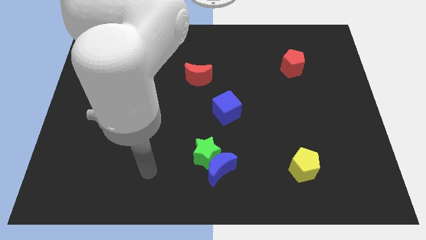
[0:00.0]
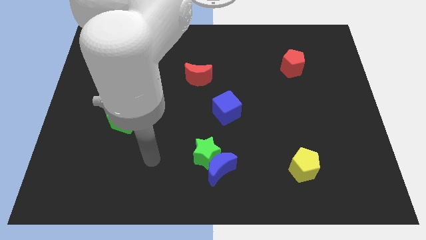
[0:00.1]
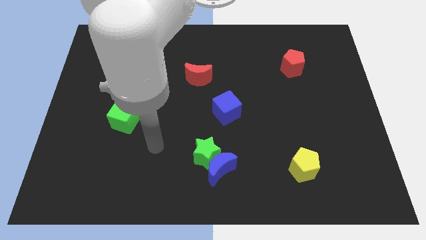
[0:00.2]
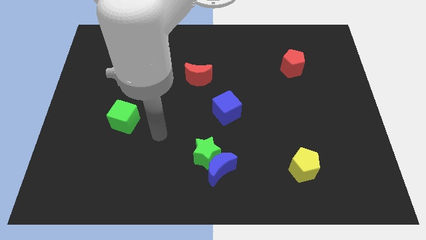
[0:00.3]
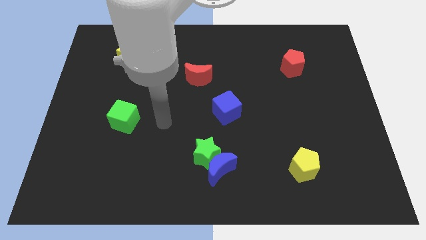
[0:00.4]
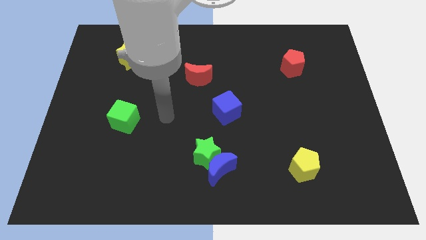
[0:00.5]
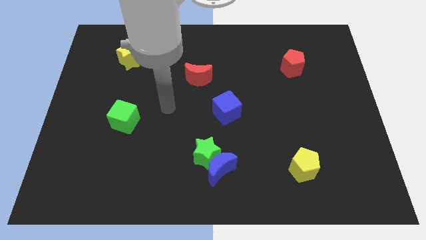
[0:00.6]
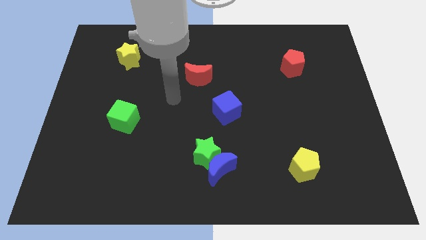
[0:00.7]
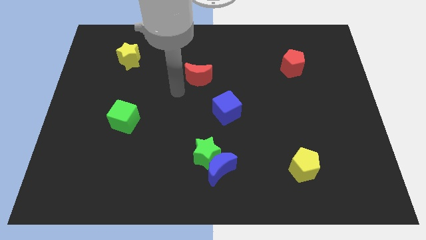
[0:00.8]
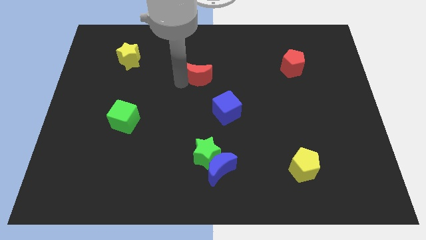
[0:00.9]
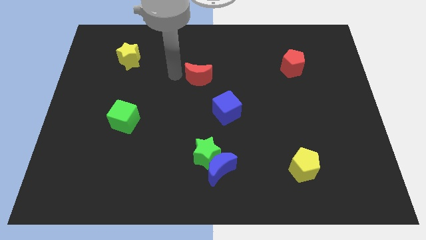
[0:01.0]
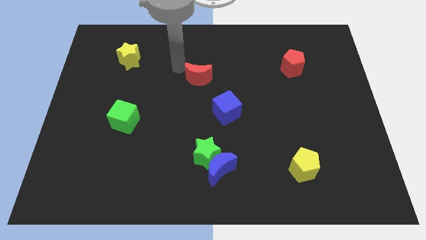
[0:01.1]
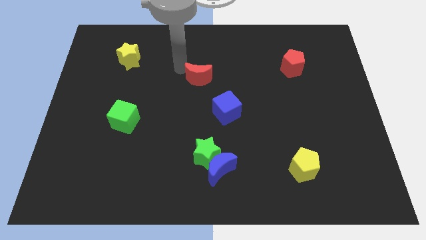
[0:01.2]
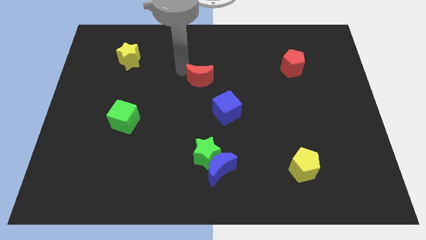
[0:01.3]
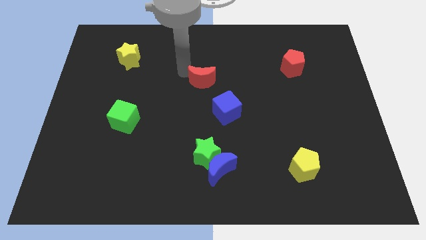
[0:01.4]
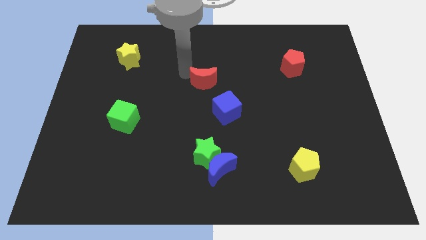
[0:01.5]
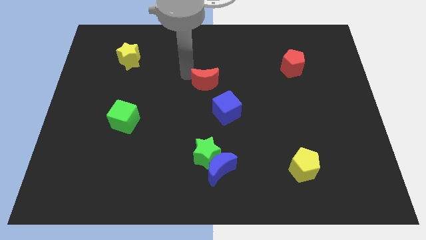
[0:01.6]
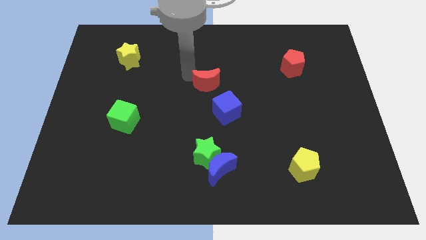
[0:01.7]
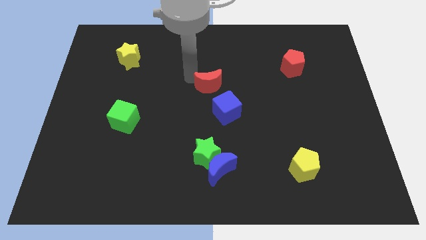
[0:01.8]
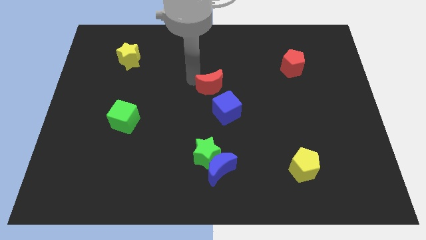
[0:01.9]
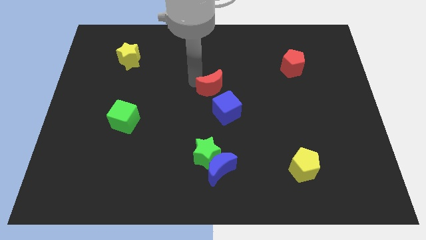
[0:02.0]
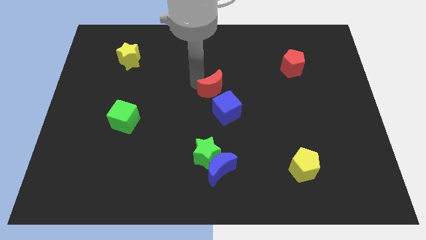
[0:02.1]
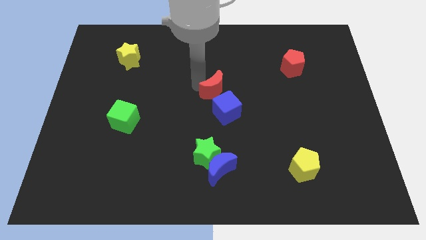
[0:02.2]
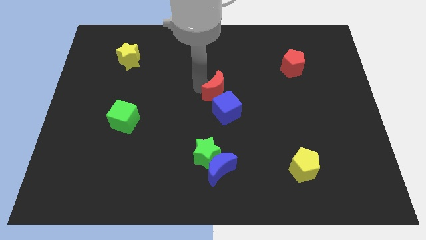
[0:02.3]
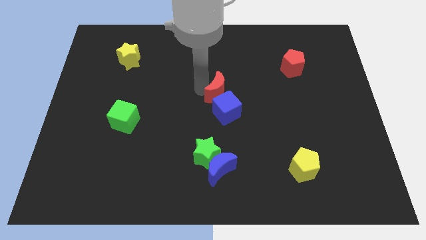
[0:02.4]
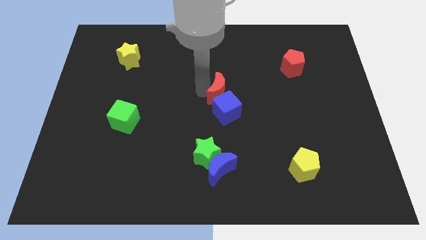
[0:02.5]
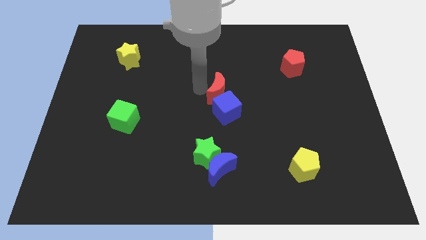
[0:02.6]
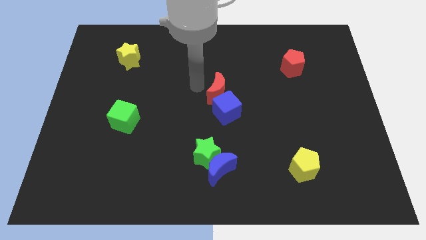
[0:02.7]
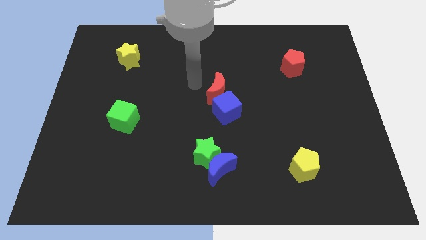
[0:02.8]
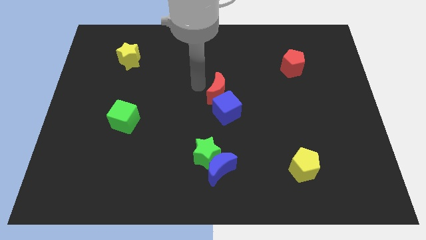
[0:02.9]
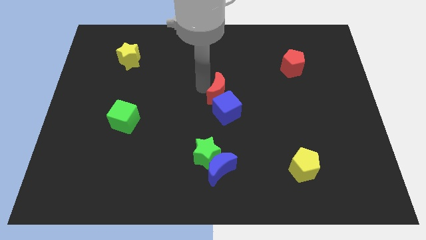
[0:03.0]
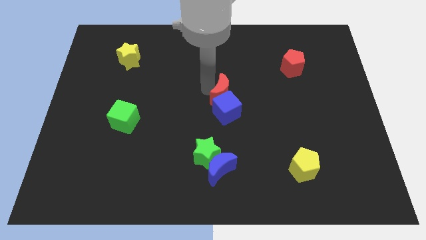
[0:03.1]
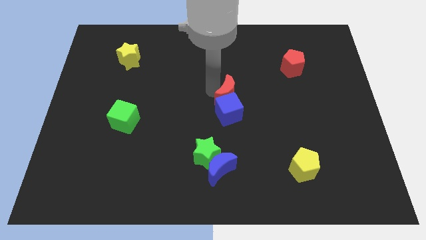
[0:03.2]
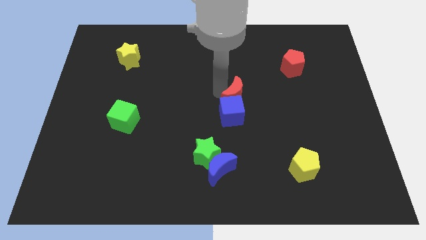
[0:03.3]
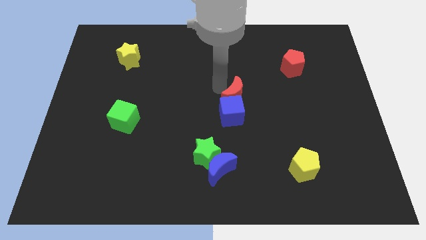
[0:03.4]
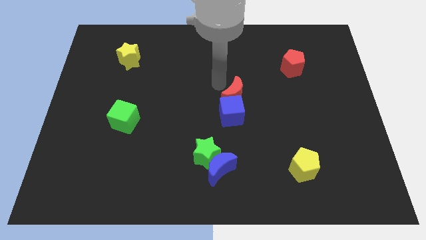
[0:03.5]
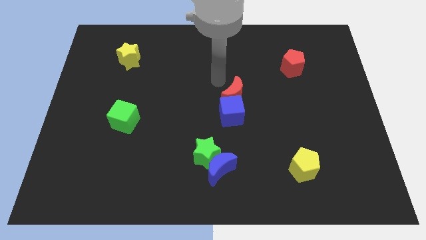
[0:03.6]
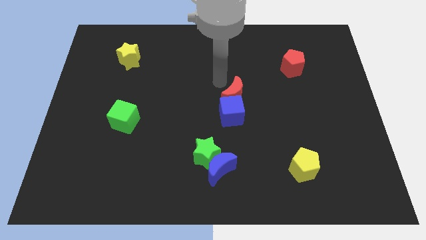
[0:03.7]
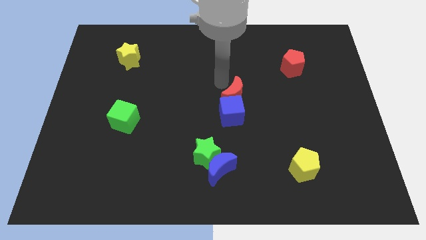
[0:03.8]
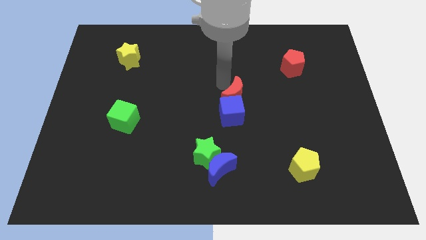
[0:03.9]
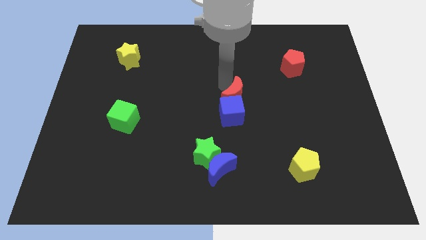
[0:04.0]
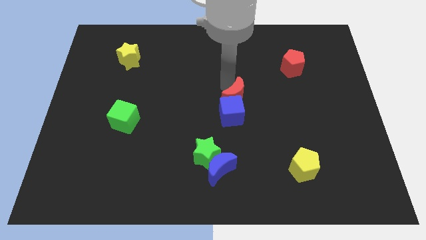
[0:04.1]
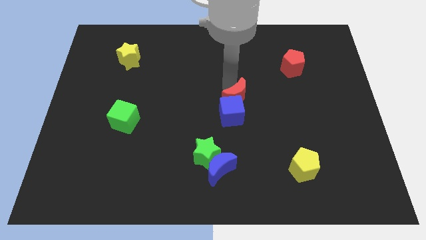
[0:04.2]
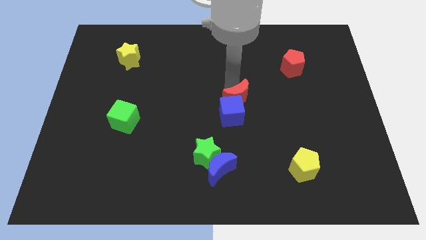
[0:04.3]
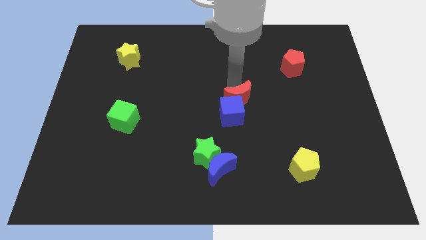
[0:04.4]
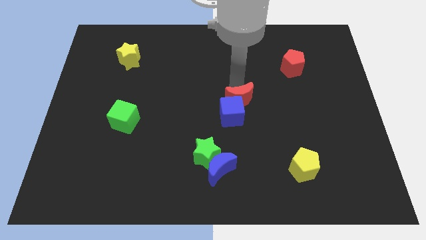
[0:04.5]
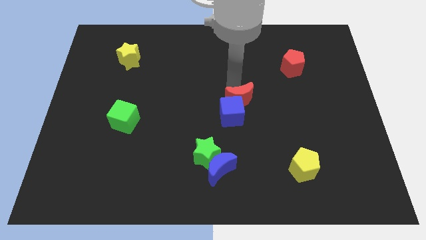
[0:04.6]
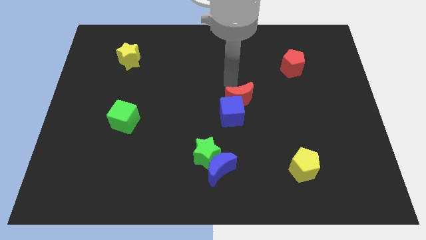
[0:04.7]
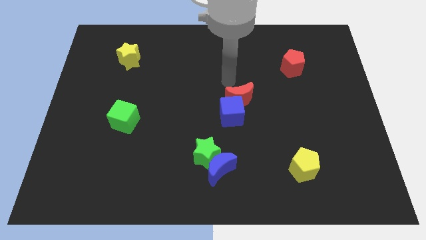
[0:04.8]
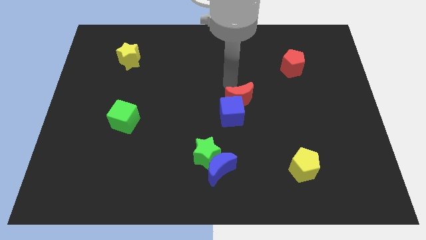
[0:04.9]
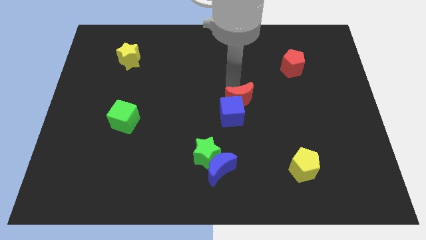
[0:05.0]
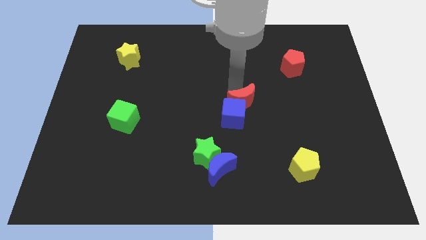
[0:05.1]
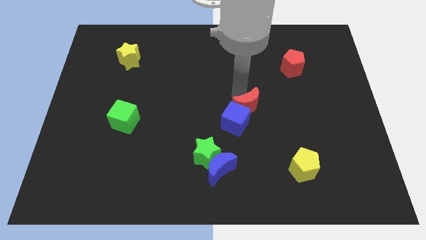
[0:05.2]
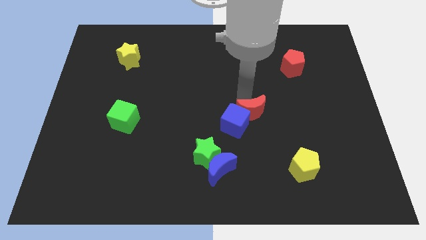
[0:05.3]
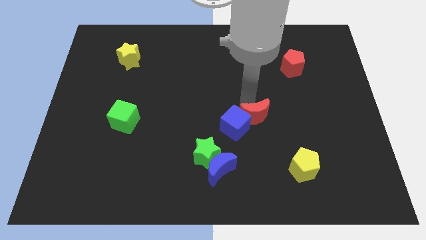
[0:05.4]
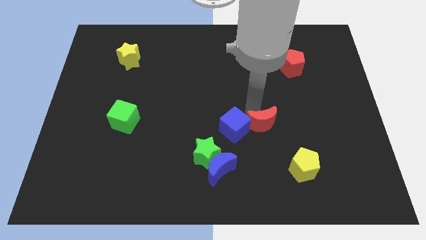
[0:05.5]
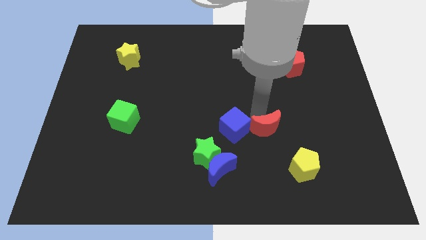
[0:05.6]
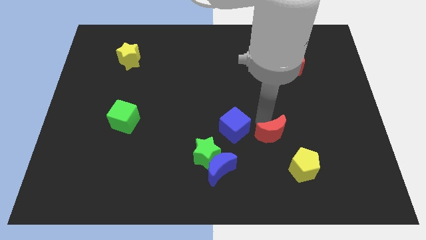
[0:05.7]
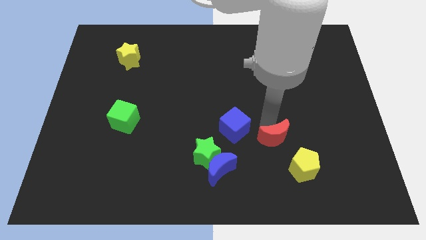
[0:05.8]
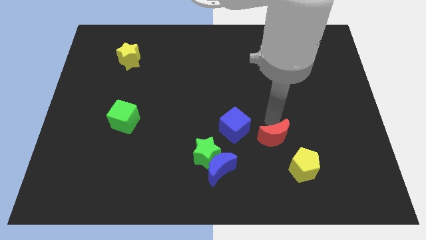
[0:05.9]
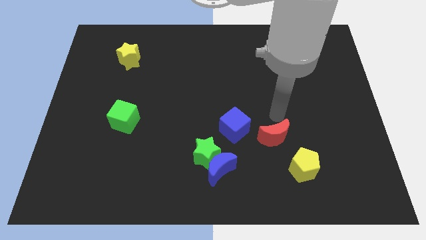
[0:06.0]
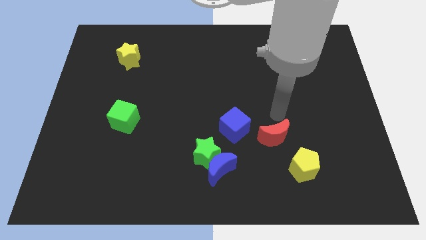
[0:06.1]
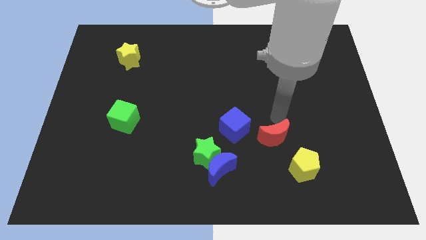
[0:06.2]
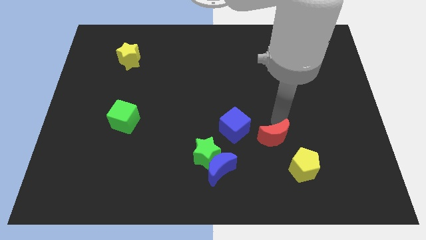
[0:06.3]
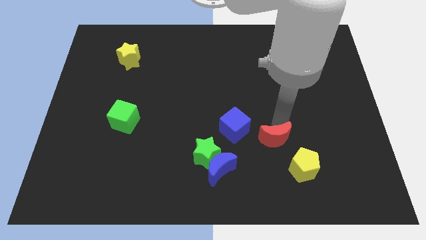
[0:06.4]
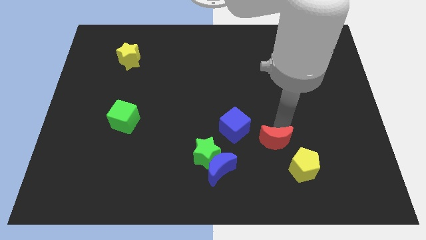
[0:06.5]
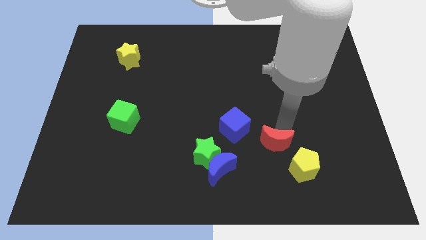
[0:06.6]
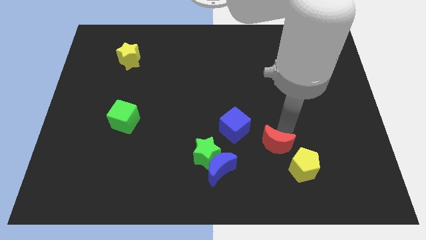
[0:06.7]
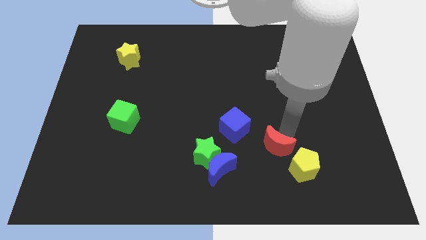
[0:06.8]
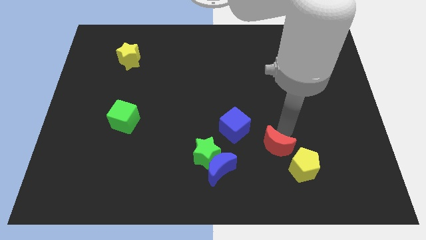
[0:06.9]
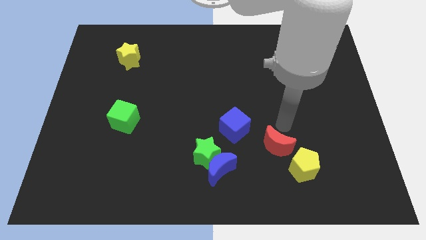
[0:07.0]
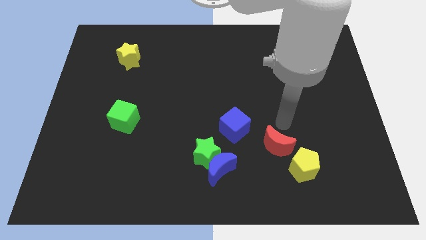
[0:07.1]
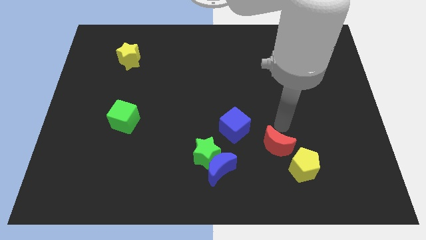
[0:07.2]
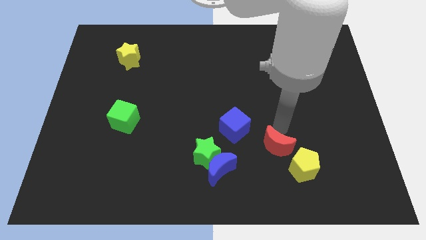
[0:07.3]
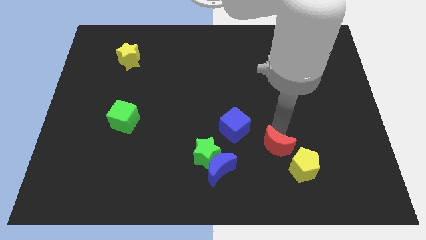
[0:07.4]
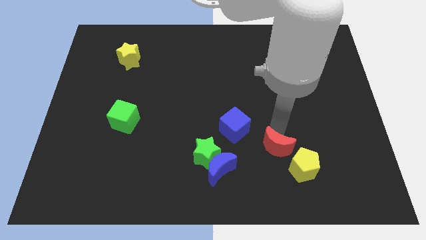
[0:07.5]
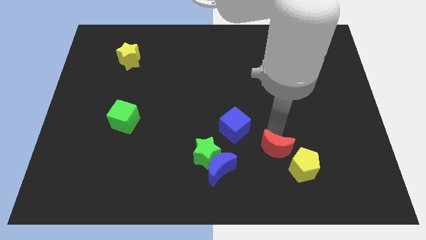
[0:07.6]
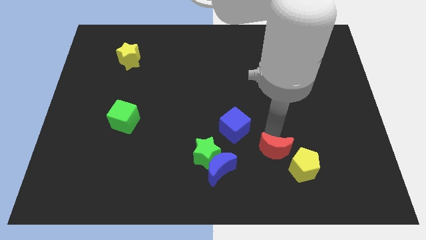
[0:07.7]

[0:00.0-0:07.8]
slide the red moon right of the blue moon
